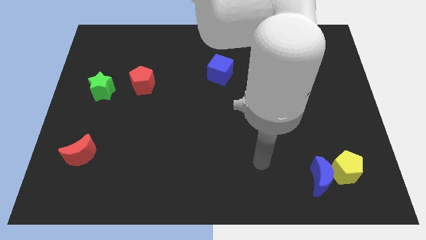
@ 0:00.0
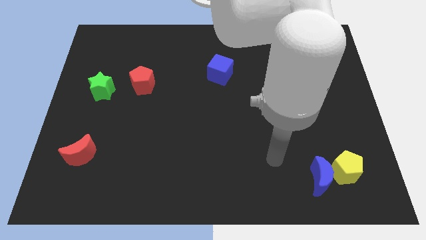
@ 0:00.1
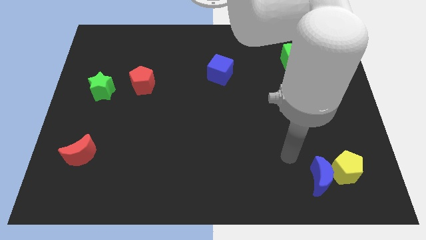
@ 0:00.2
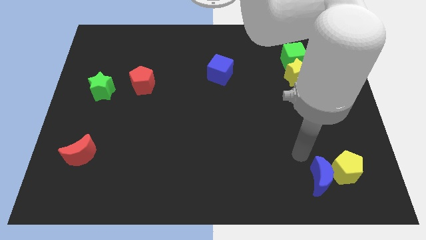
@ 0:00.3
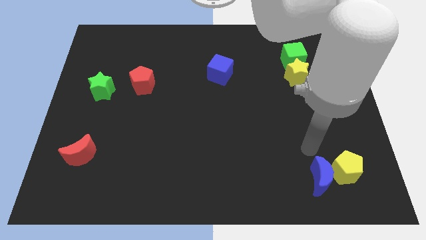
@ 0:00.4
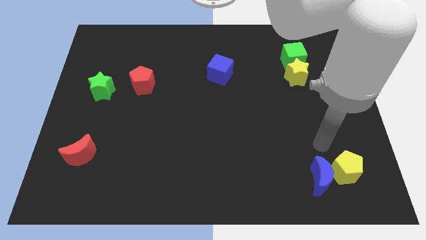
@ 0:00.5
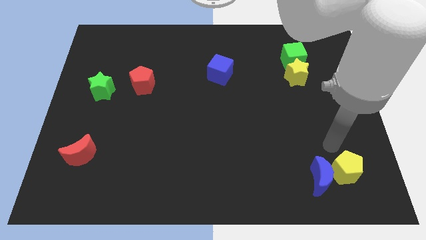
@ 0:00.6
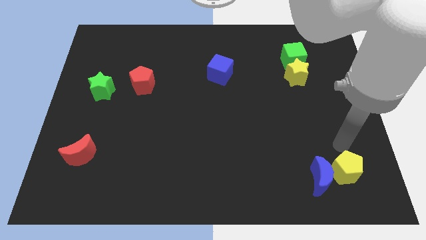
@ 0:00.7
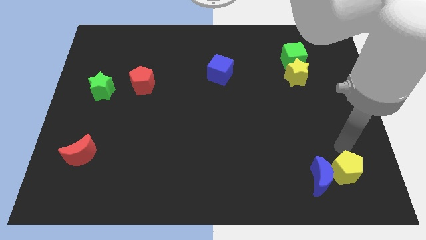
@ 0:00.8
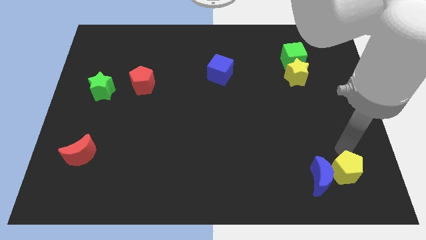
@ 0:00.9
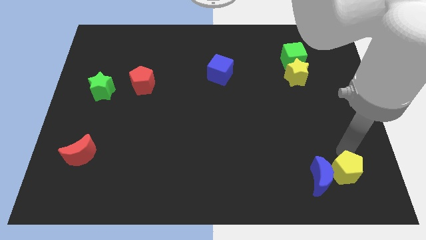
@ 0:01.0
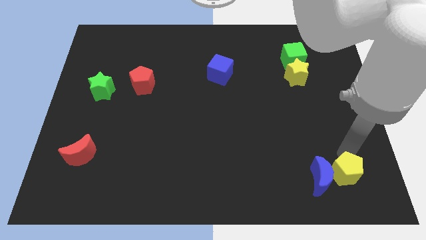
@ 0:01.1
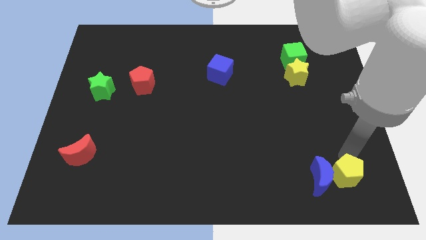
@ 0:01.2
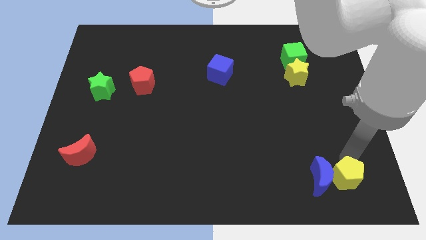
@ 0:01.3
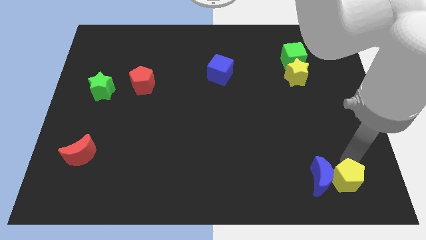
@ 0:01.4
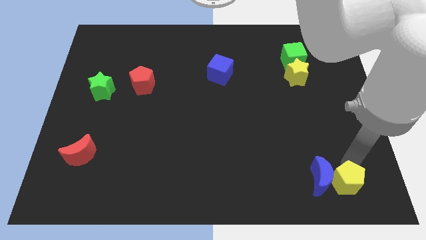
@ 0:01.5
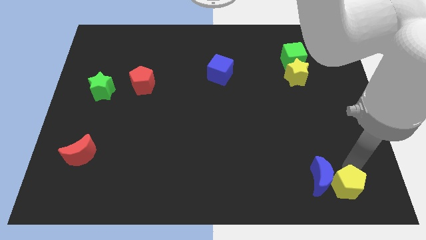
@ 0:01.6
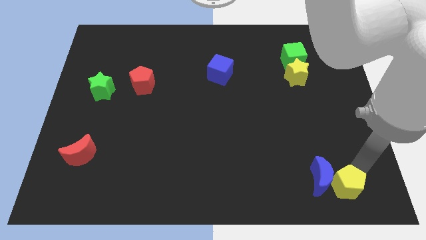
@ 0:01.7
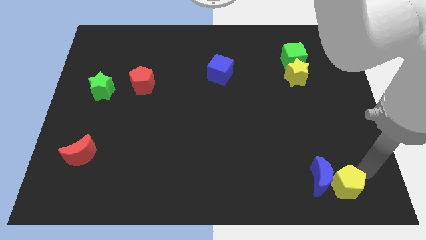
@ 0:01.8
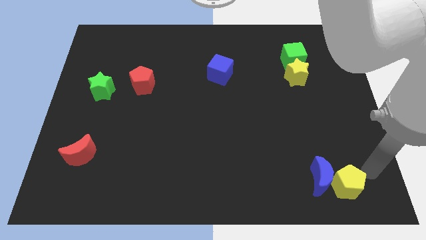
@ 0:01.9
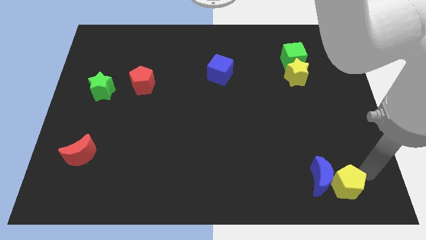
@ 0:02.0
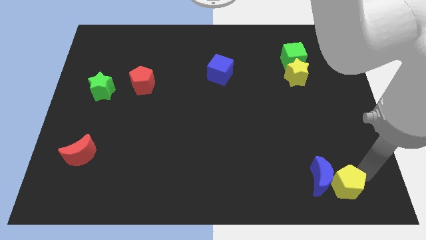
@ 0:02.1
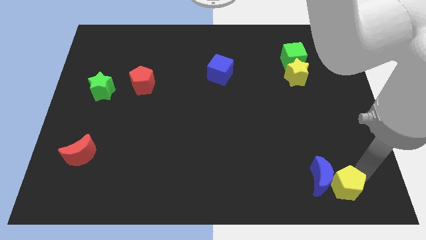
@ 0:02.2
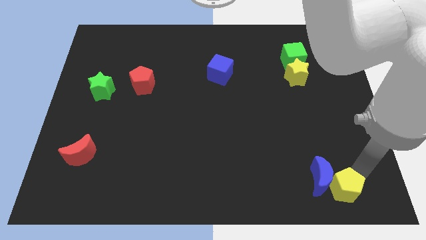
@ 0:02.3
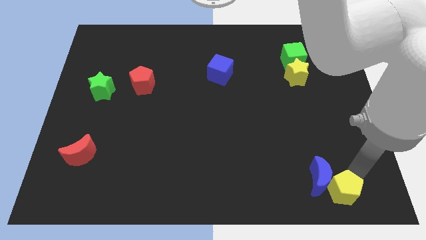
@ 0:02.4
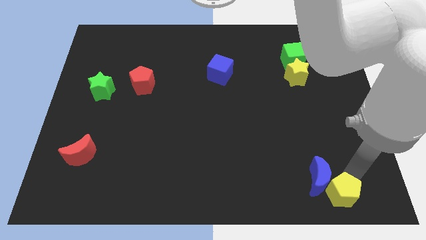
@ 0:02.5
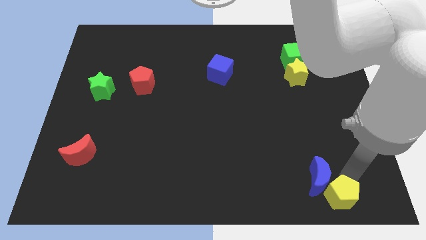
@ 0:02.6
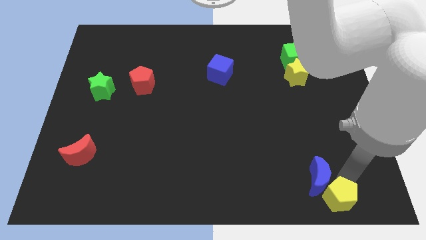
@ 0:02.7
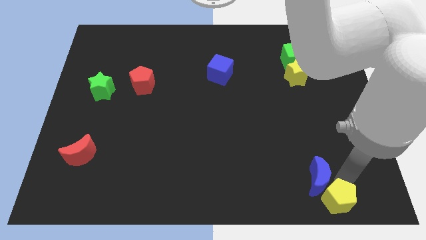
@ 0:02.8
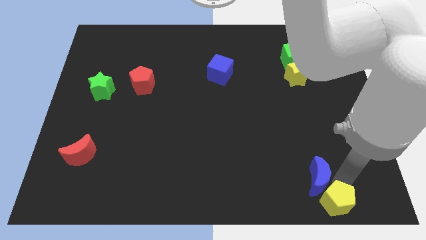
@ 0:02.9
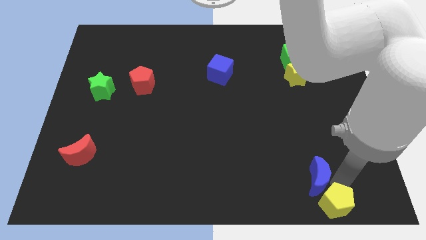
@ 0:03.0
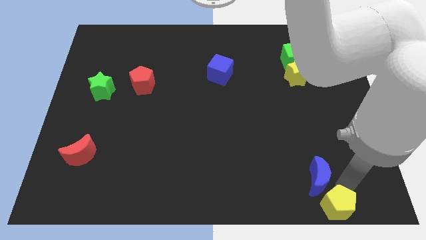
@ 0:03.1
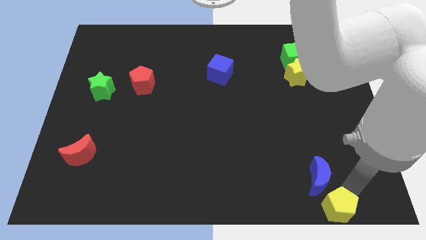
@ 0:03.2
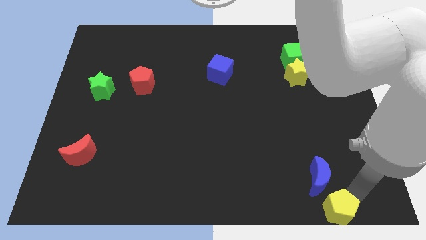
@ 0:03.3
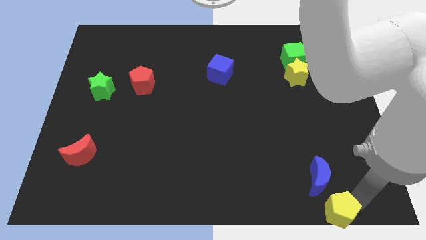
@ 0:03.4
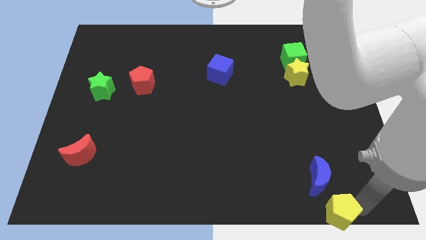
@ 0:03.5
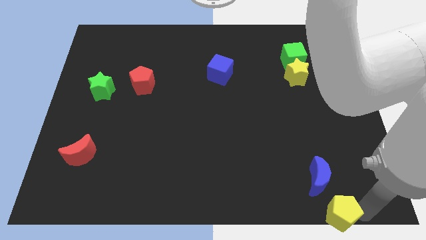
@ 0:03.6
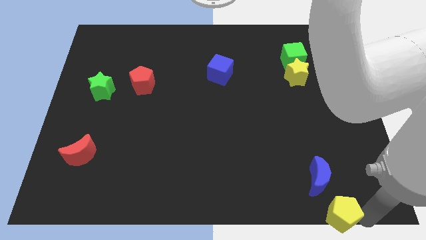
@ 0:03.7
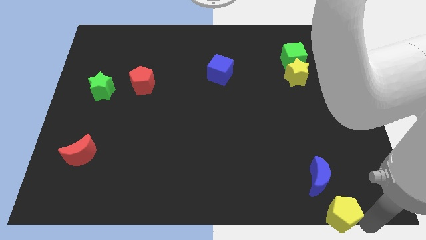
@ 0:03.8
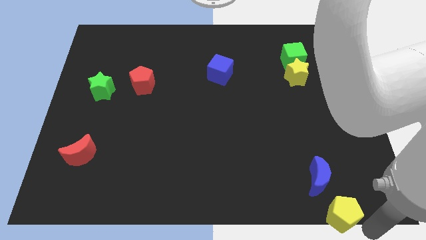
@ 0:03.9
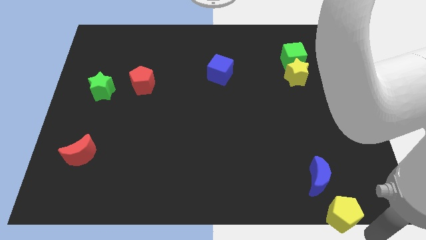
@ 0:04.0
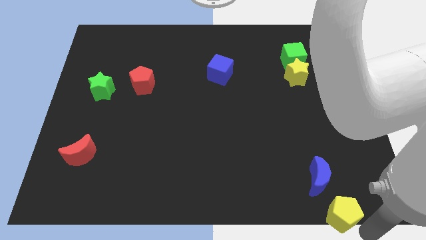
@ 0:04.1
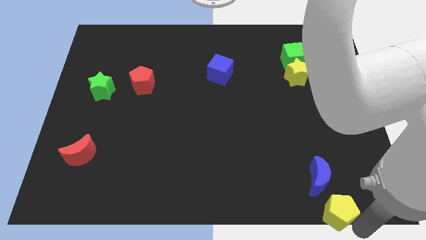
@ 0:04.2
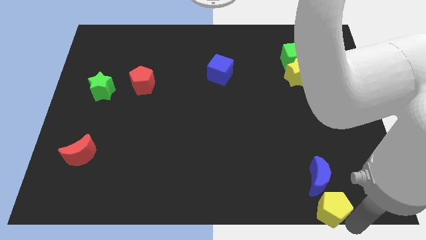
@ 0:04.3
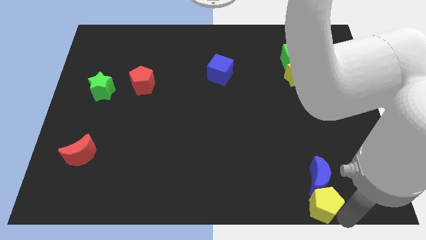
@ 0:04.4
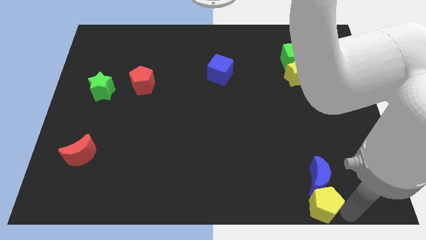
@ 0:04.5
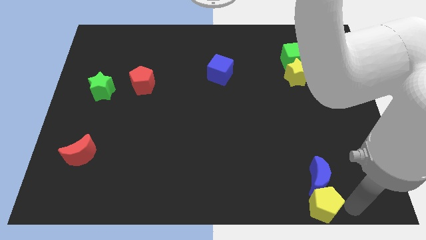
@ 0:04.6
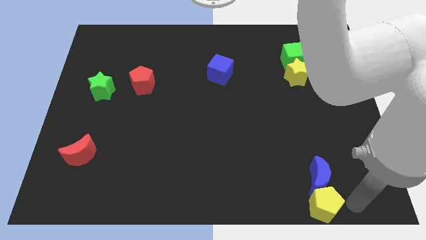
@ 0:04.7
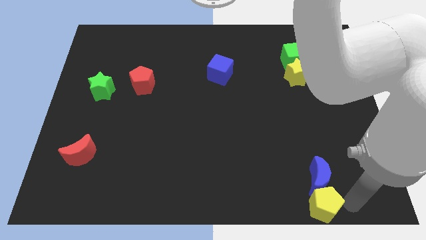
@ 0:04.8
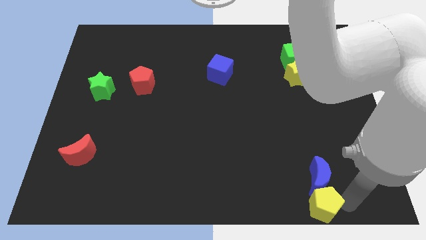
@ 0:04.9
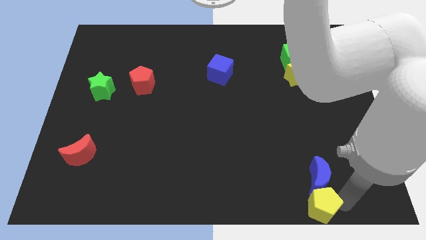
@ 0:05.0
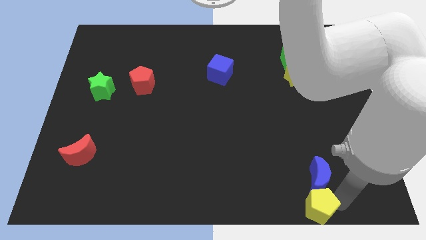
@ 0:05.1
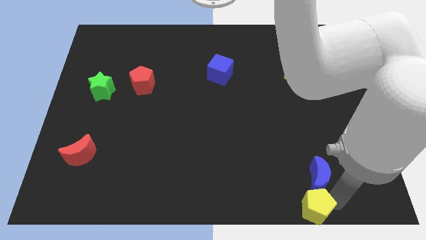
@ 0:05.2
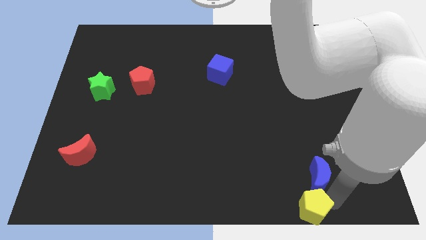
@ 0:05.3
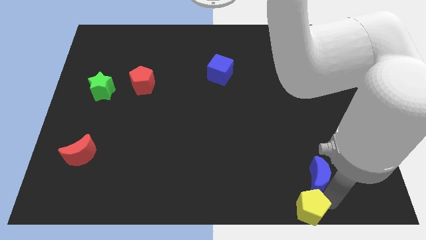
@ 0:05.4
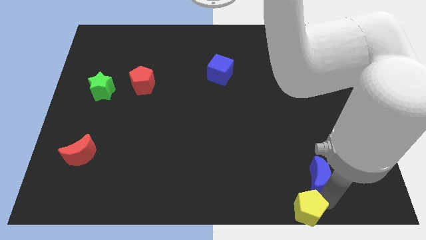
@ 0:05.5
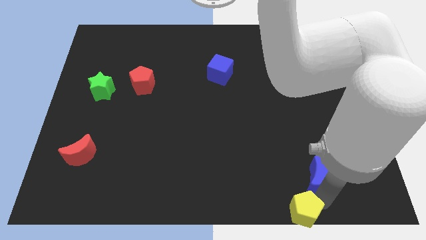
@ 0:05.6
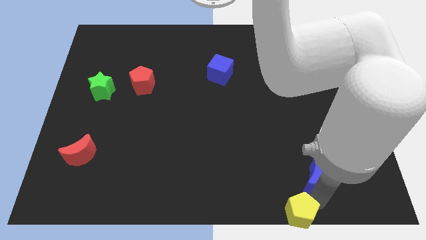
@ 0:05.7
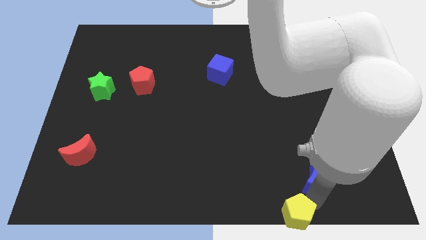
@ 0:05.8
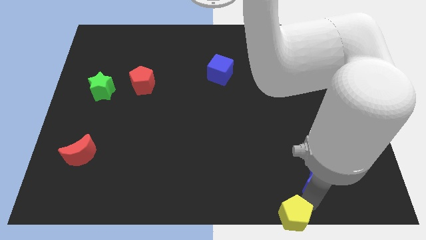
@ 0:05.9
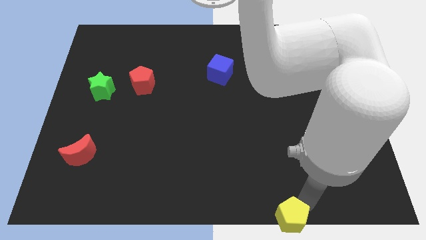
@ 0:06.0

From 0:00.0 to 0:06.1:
slide the yellow pentagon to the bottom side

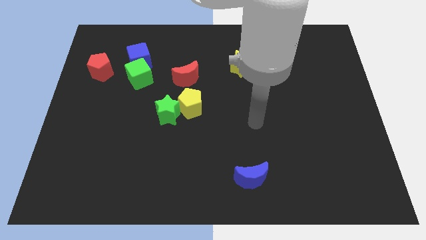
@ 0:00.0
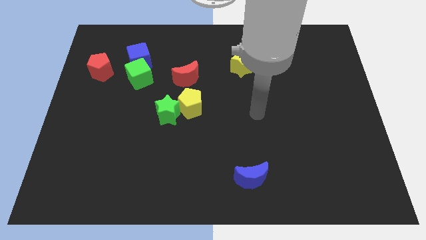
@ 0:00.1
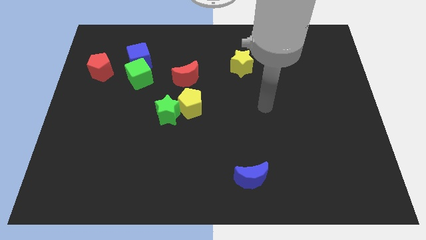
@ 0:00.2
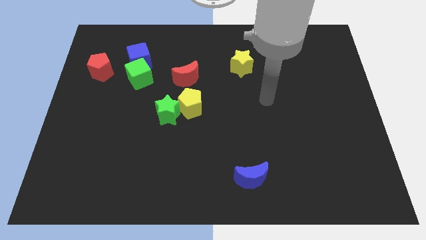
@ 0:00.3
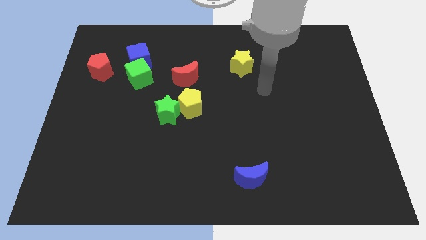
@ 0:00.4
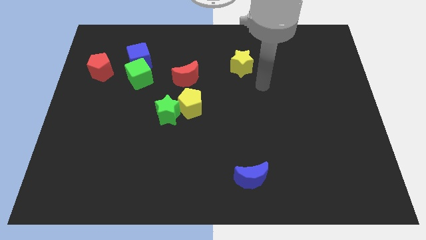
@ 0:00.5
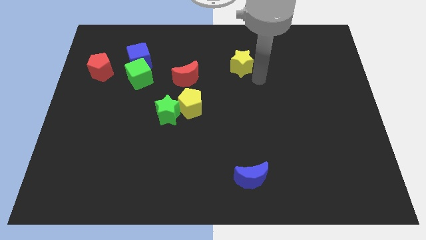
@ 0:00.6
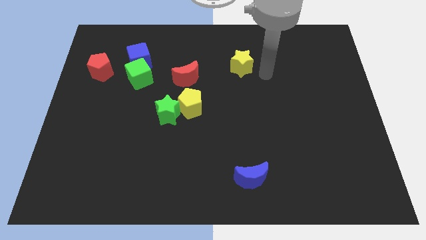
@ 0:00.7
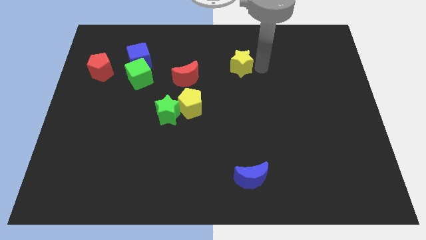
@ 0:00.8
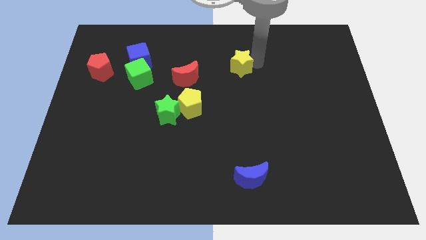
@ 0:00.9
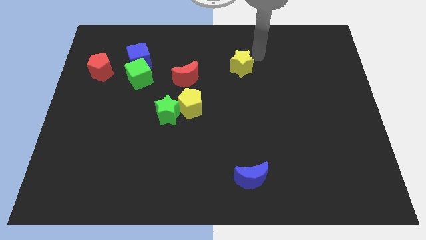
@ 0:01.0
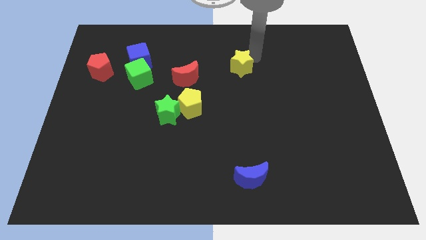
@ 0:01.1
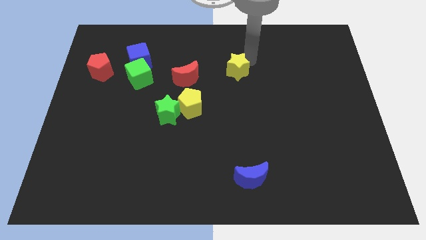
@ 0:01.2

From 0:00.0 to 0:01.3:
put the yellow star to the center
